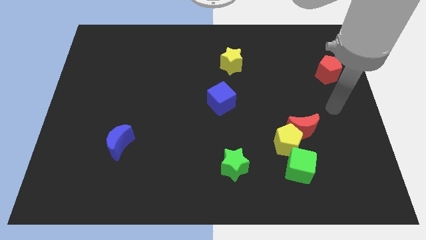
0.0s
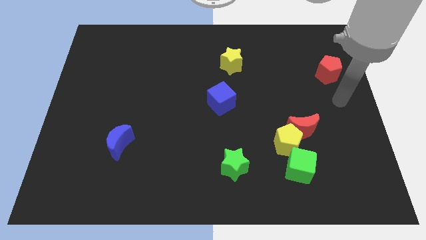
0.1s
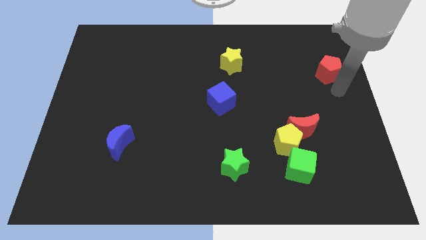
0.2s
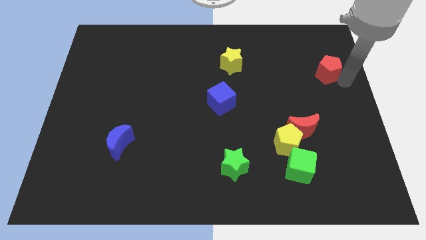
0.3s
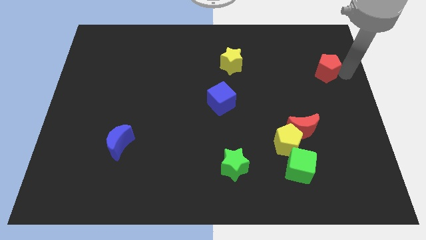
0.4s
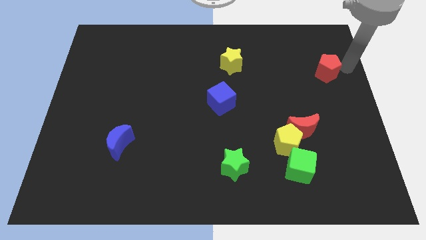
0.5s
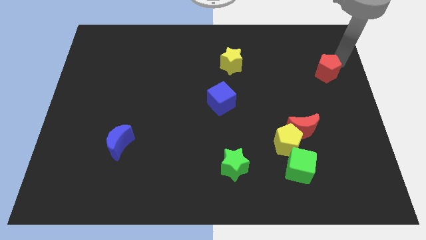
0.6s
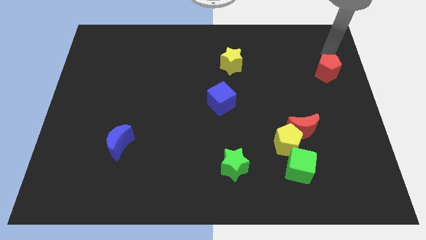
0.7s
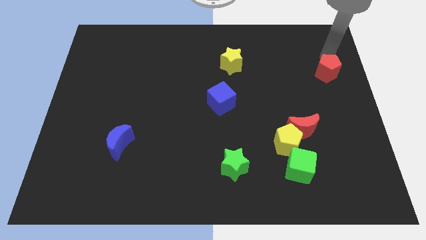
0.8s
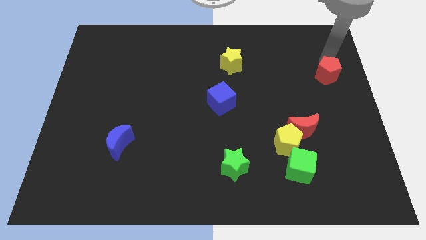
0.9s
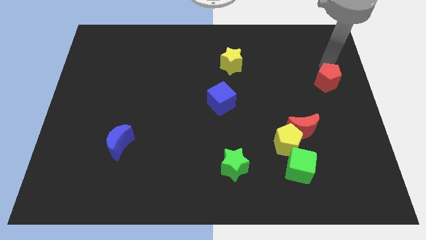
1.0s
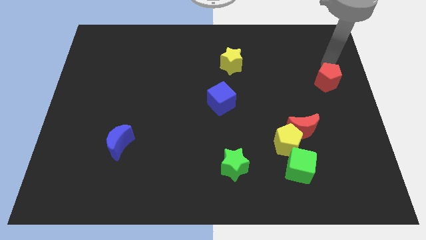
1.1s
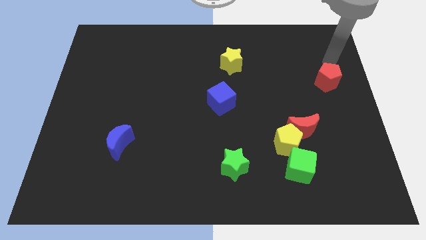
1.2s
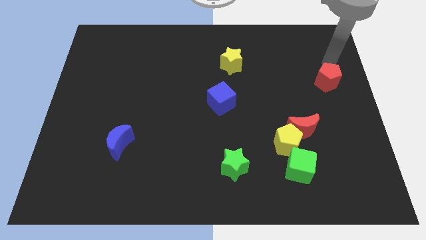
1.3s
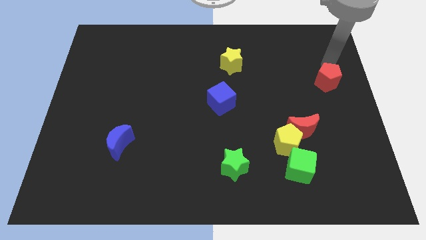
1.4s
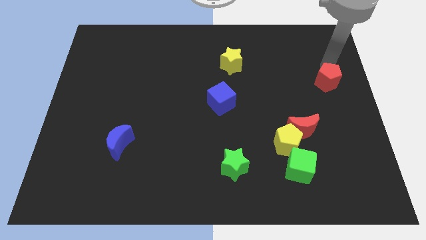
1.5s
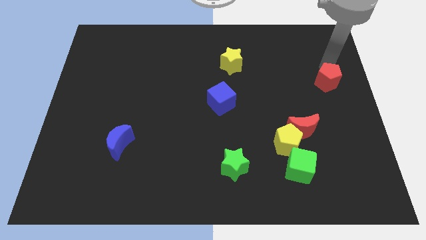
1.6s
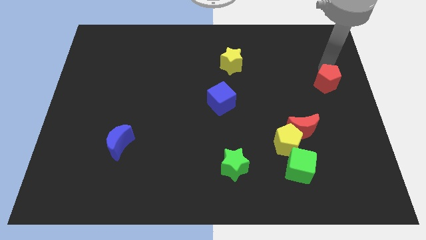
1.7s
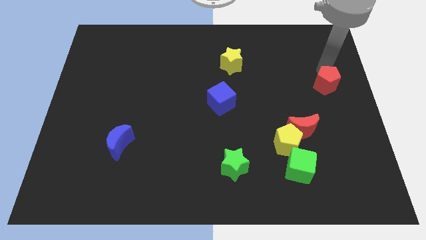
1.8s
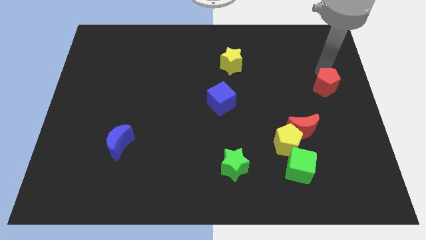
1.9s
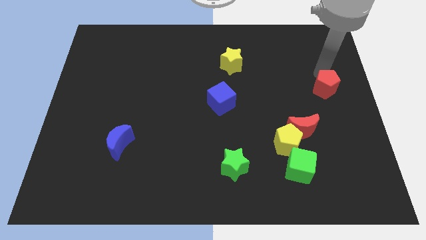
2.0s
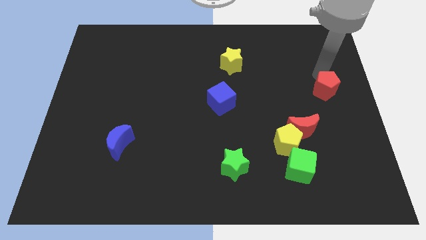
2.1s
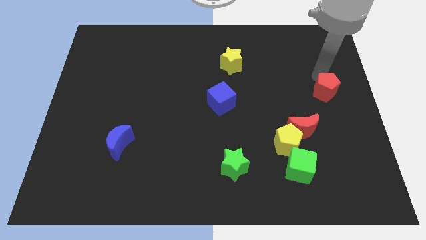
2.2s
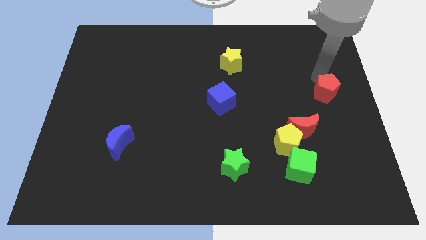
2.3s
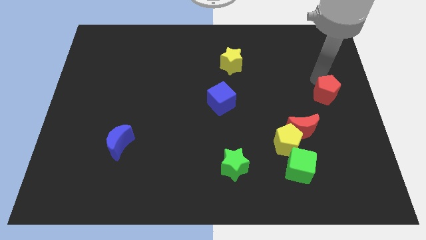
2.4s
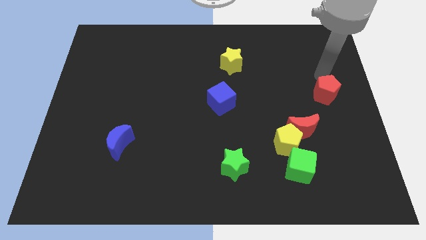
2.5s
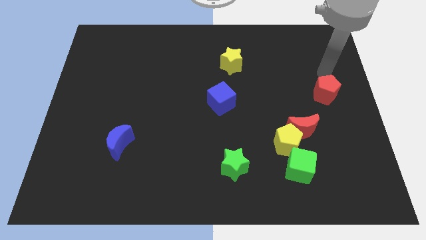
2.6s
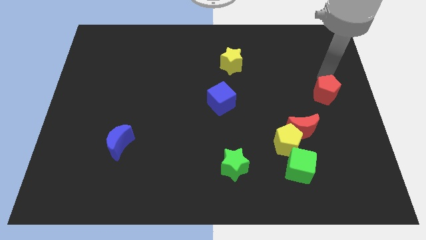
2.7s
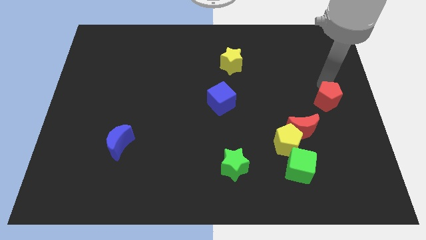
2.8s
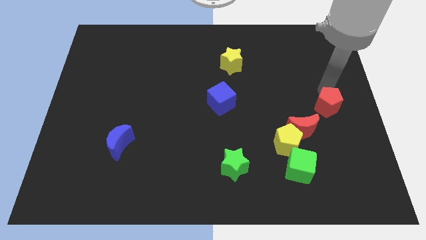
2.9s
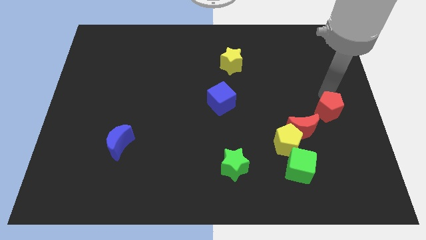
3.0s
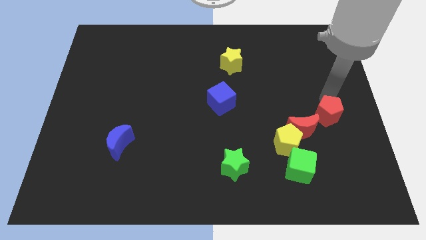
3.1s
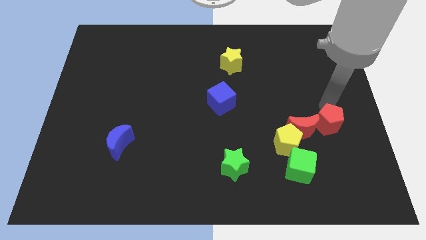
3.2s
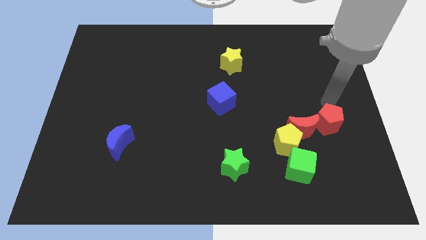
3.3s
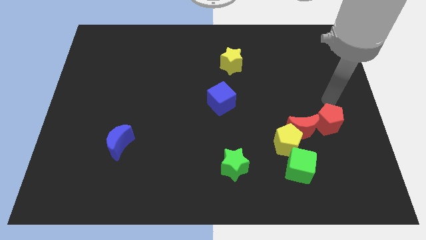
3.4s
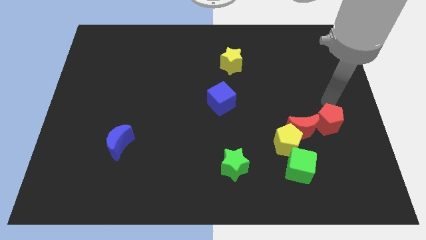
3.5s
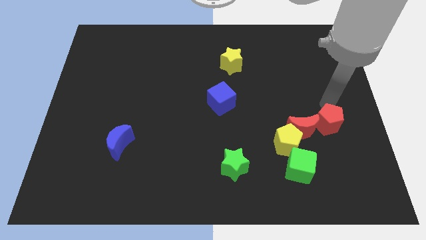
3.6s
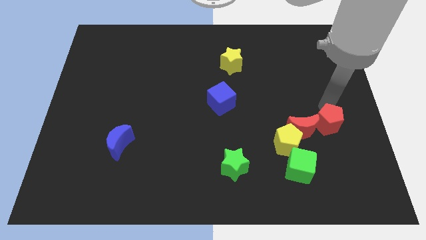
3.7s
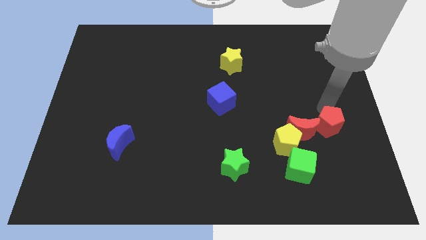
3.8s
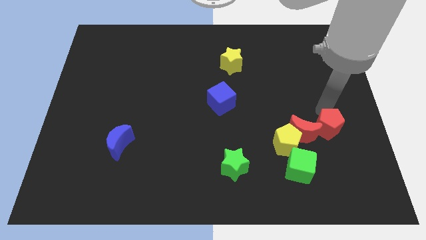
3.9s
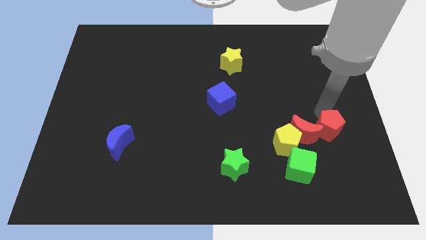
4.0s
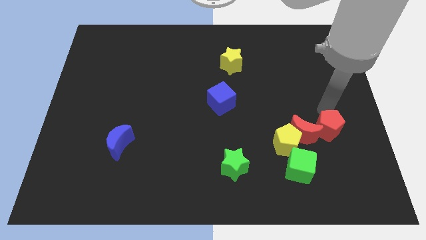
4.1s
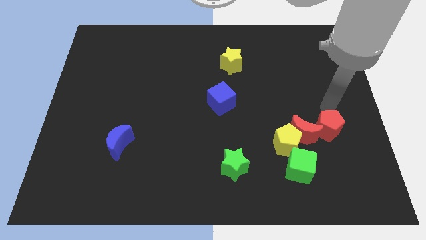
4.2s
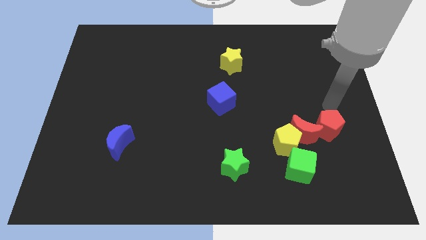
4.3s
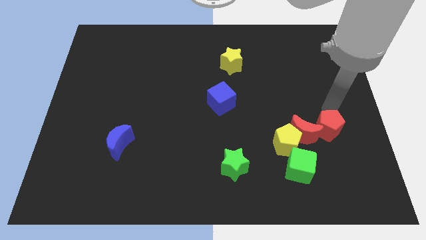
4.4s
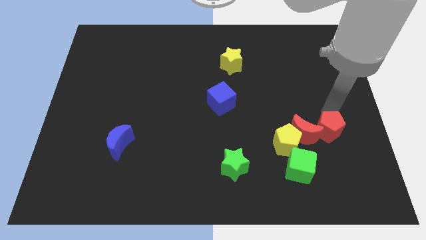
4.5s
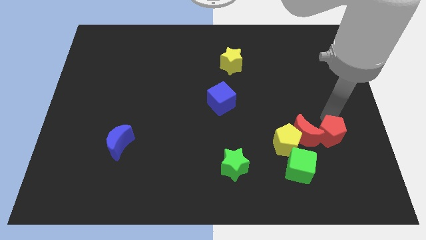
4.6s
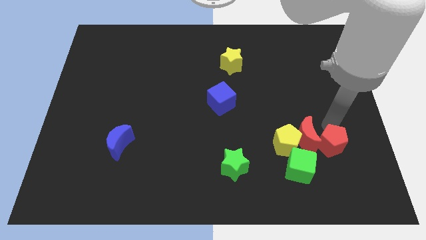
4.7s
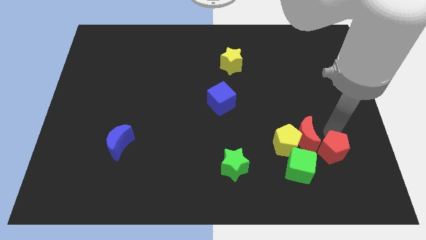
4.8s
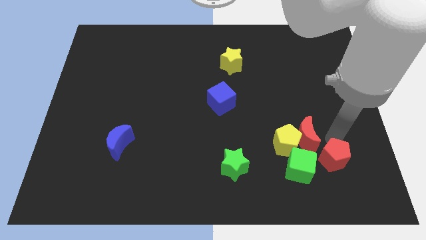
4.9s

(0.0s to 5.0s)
push the red pentagon diagonally down and to the right of the yellow pentagon

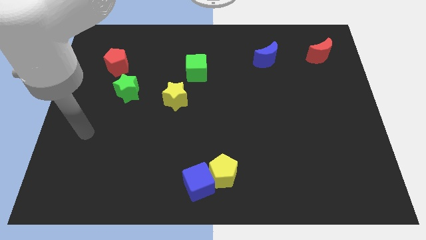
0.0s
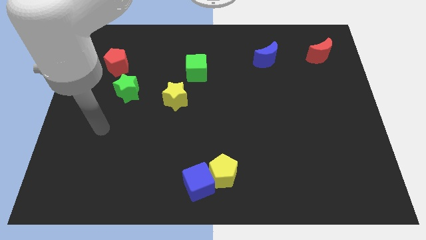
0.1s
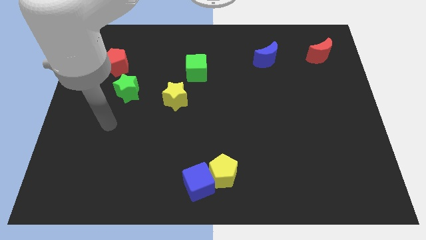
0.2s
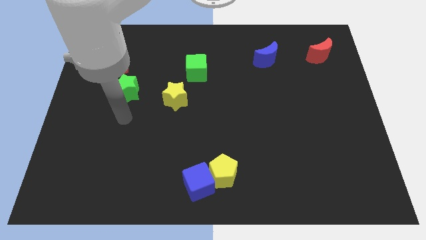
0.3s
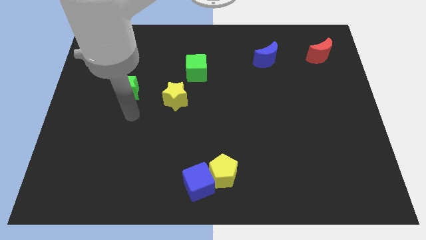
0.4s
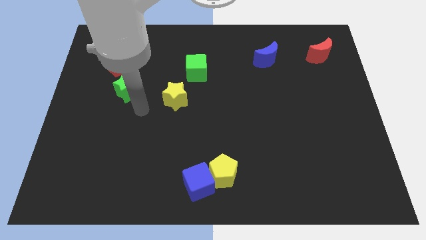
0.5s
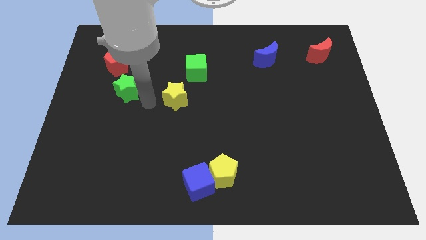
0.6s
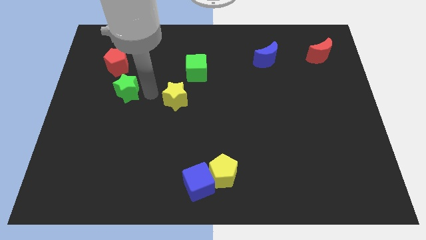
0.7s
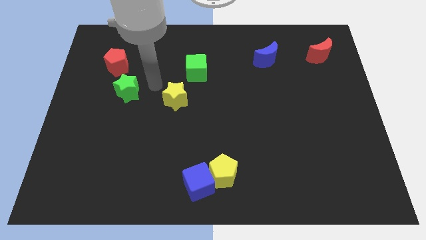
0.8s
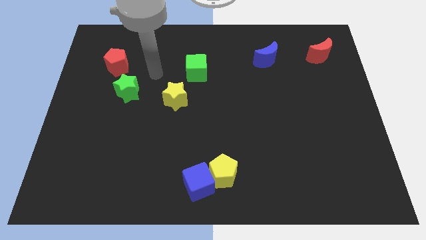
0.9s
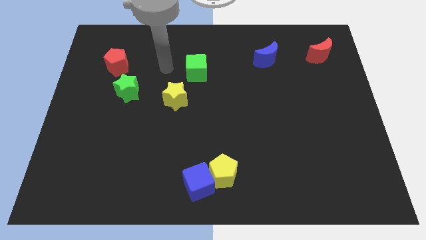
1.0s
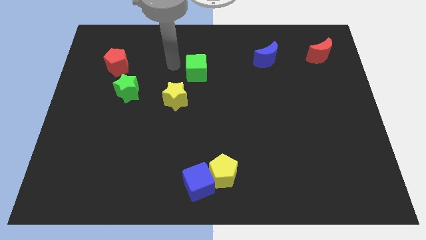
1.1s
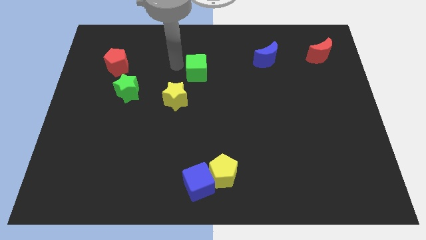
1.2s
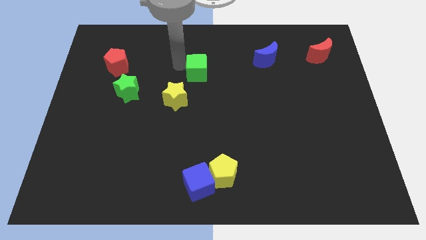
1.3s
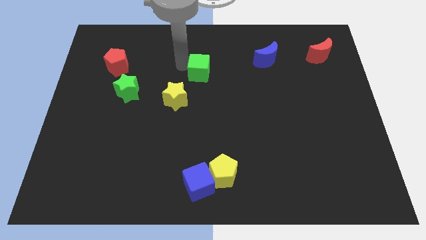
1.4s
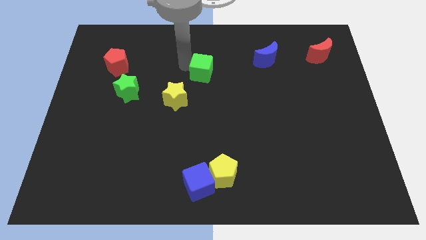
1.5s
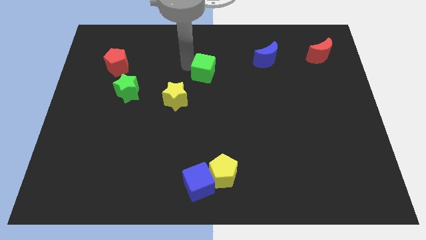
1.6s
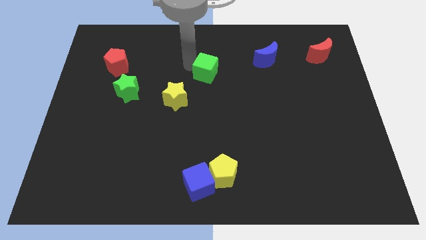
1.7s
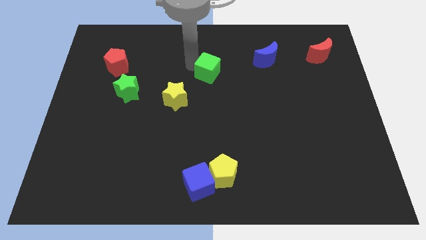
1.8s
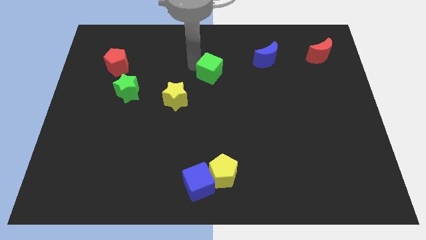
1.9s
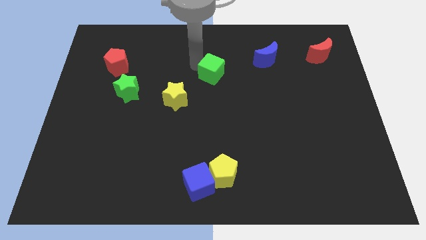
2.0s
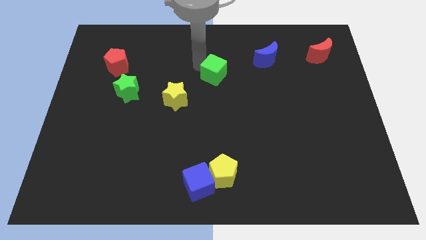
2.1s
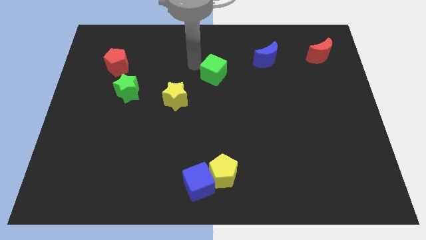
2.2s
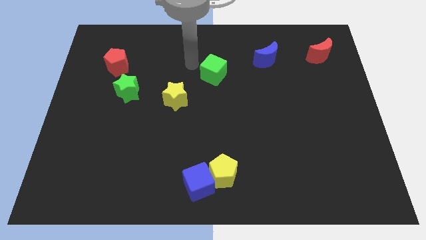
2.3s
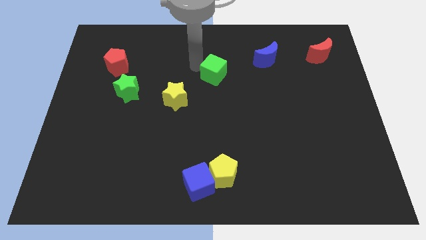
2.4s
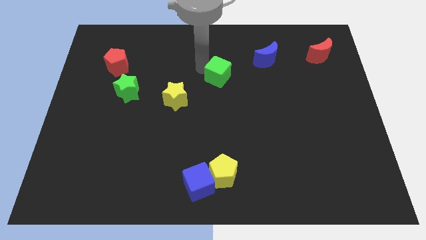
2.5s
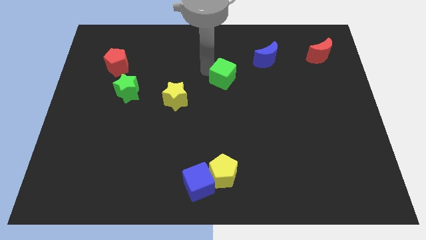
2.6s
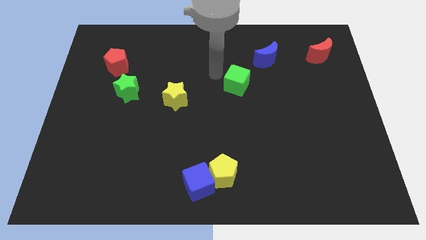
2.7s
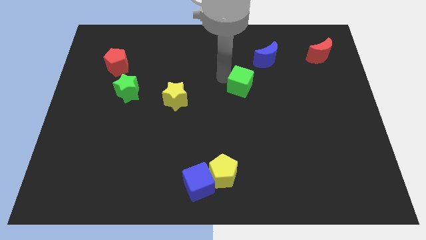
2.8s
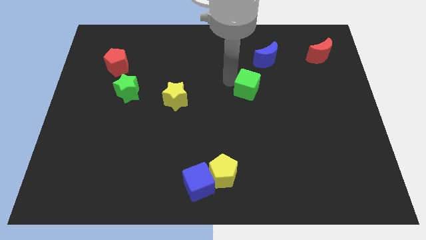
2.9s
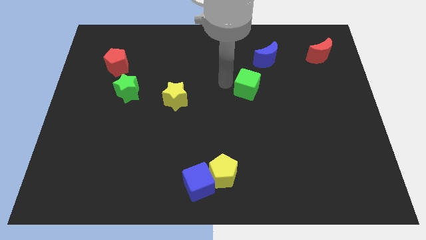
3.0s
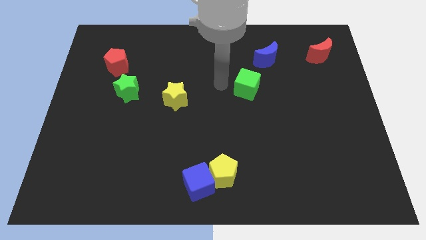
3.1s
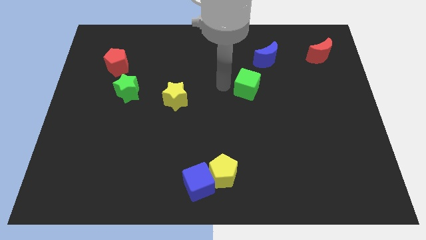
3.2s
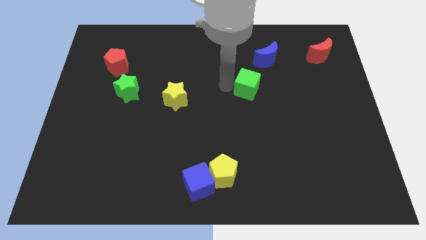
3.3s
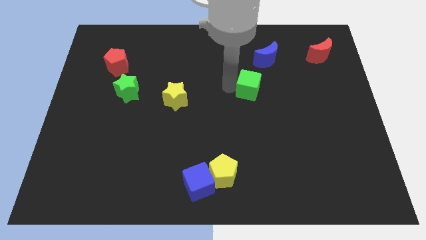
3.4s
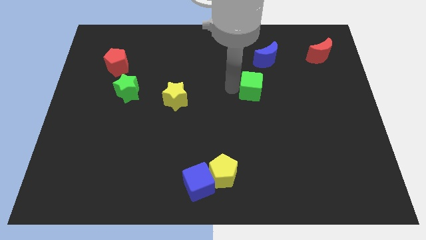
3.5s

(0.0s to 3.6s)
move the green cube below the blue moon
